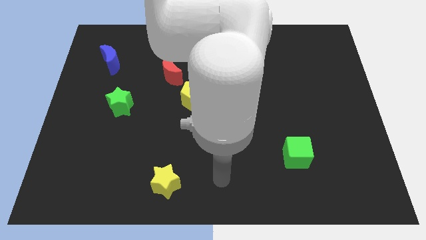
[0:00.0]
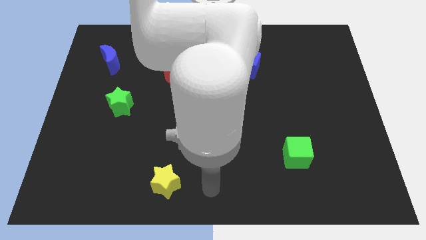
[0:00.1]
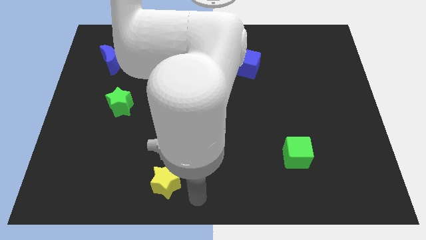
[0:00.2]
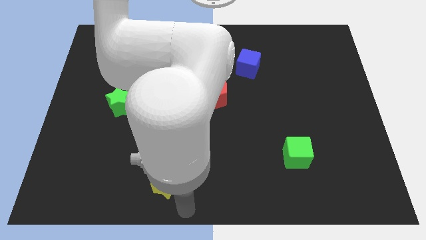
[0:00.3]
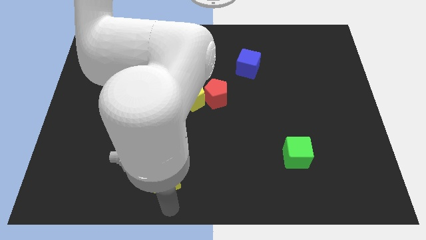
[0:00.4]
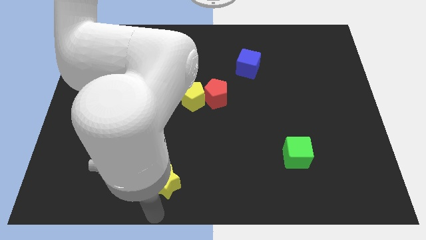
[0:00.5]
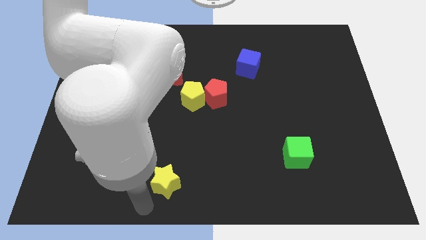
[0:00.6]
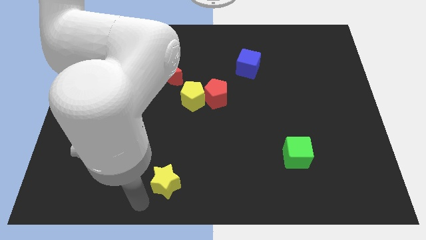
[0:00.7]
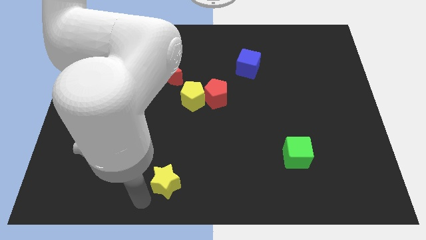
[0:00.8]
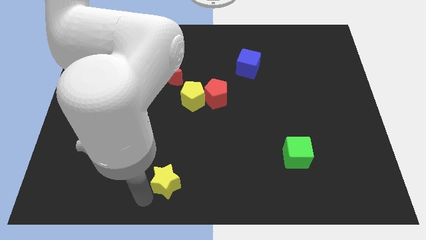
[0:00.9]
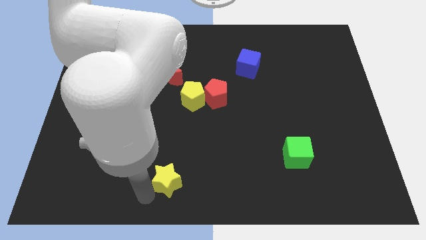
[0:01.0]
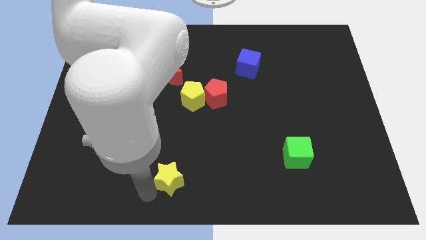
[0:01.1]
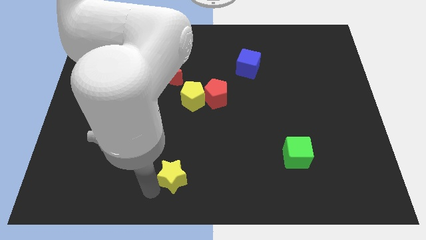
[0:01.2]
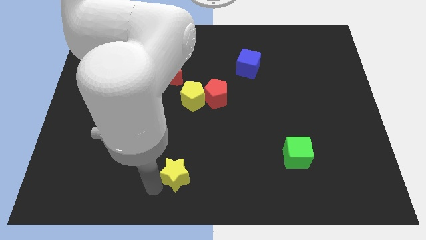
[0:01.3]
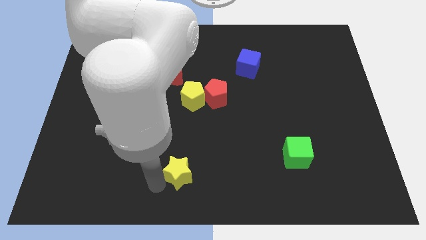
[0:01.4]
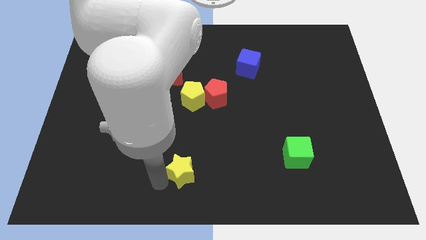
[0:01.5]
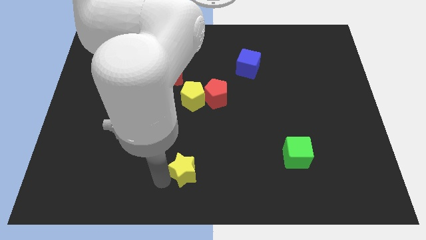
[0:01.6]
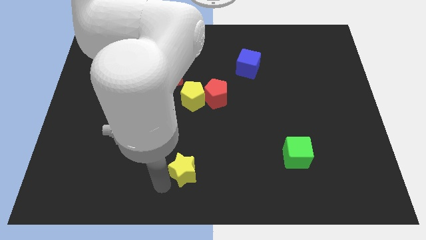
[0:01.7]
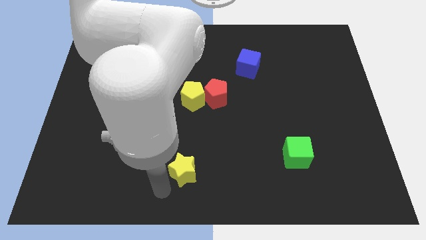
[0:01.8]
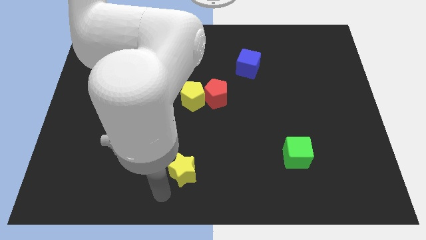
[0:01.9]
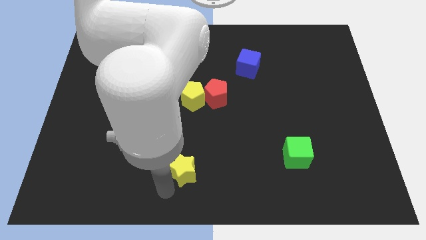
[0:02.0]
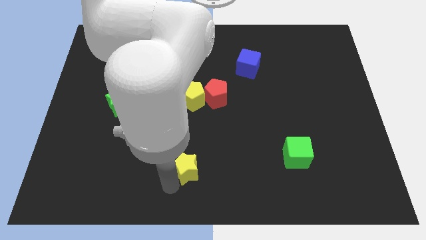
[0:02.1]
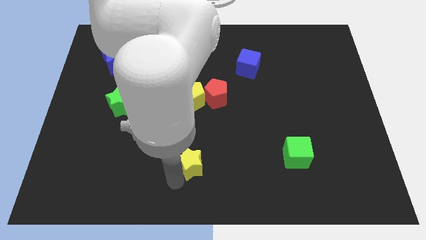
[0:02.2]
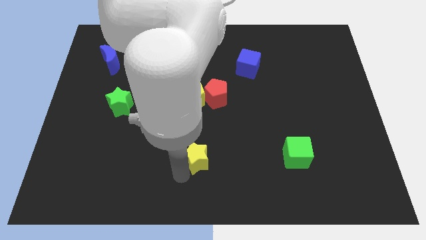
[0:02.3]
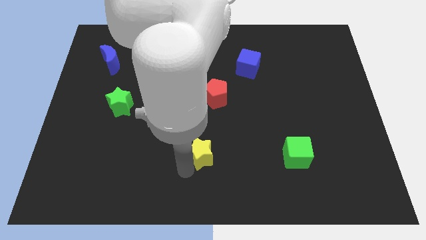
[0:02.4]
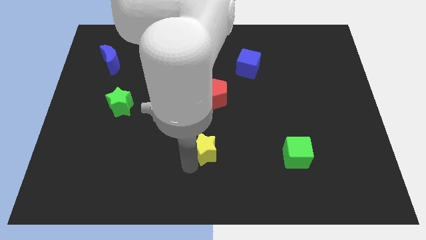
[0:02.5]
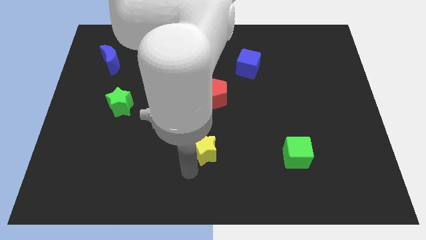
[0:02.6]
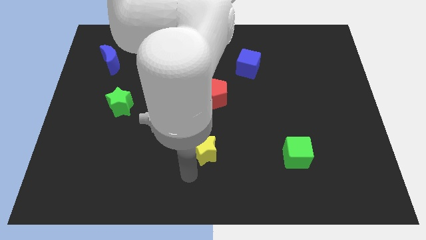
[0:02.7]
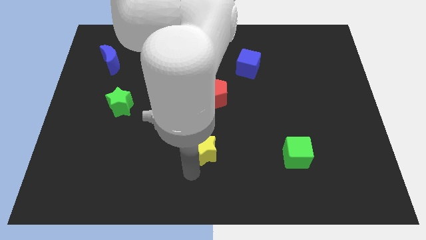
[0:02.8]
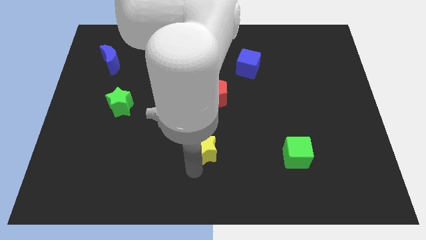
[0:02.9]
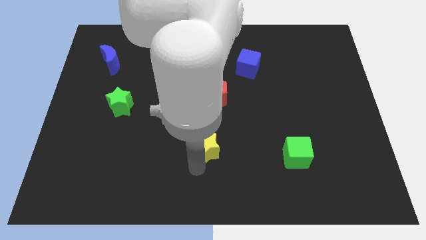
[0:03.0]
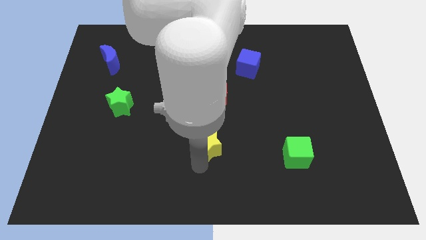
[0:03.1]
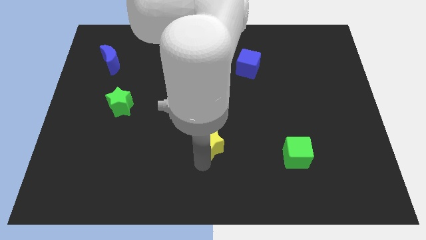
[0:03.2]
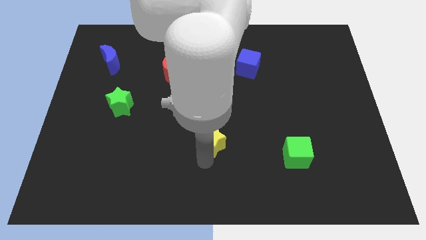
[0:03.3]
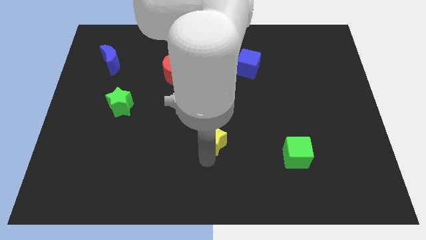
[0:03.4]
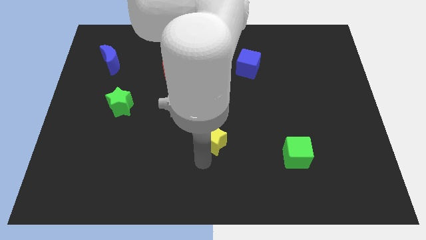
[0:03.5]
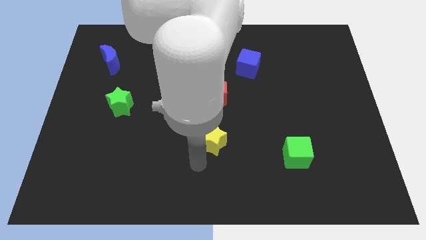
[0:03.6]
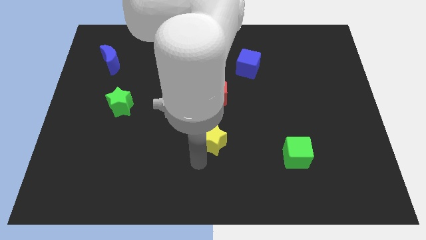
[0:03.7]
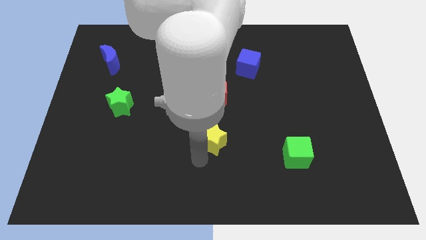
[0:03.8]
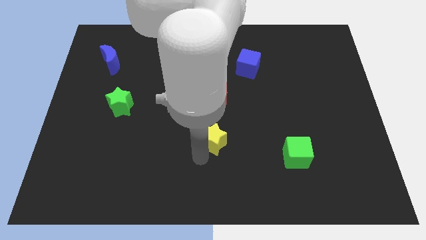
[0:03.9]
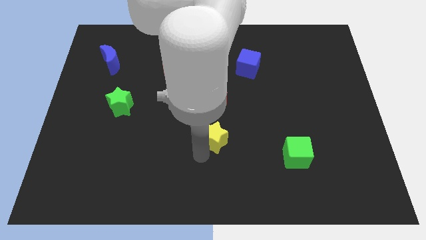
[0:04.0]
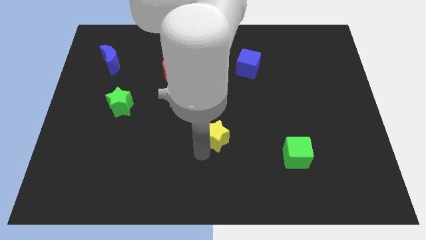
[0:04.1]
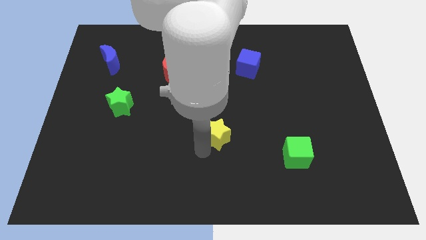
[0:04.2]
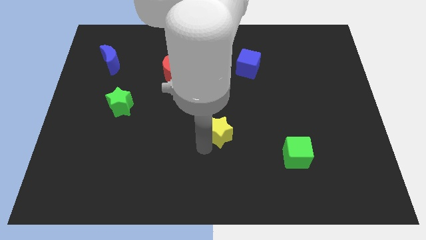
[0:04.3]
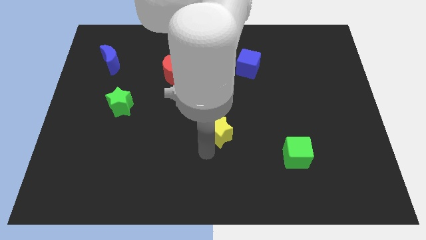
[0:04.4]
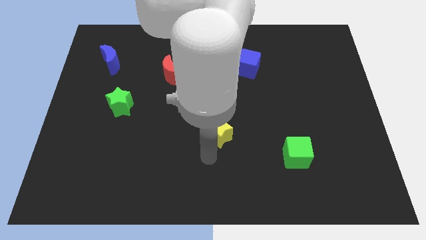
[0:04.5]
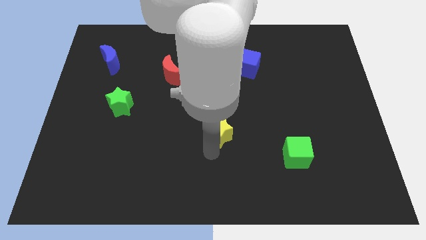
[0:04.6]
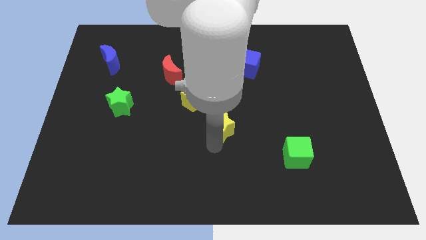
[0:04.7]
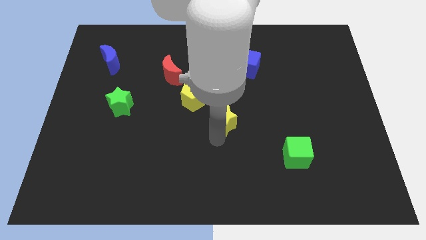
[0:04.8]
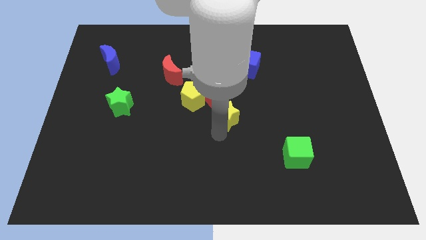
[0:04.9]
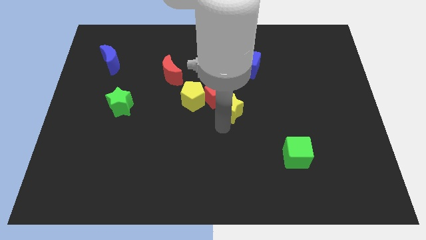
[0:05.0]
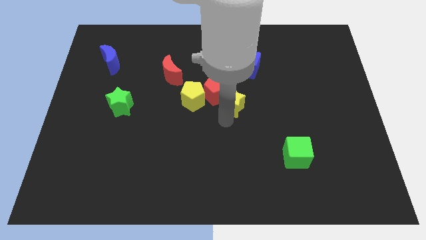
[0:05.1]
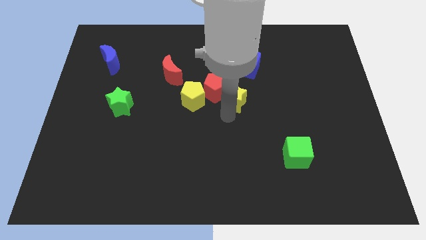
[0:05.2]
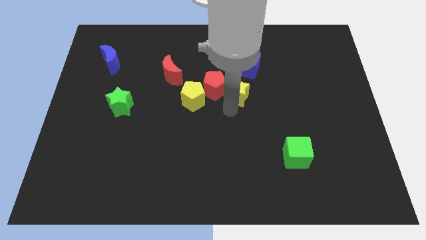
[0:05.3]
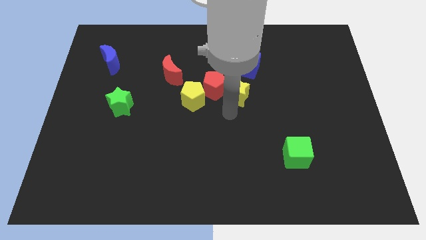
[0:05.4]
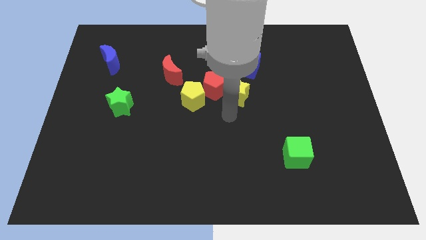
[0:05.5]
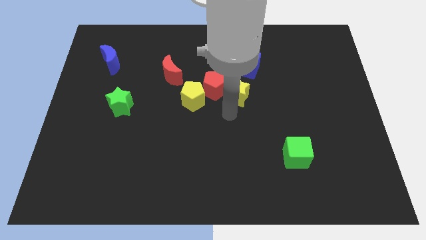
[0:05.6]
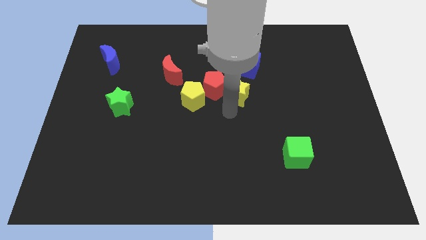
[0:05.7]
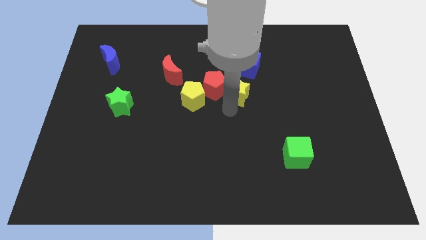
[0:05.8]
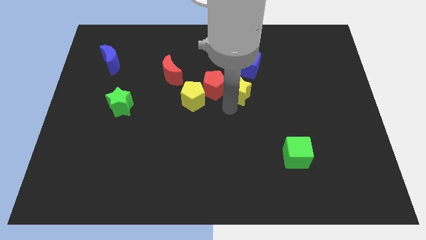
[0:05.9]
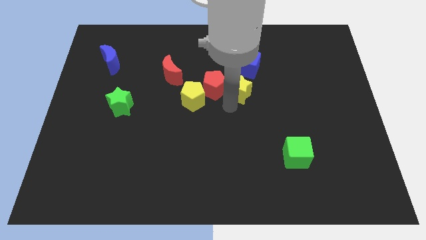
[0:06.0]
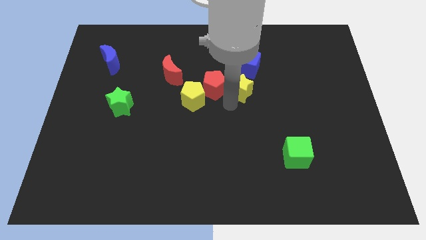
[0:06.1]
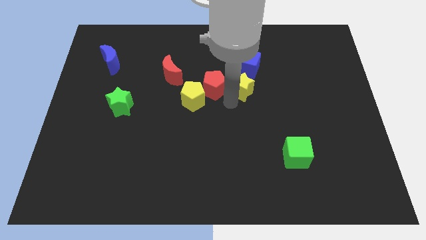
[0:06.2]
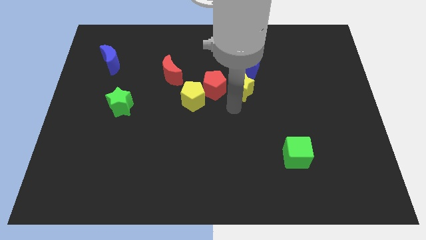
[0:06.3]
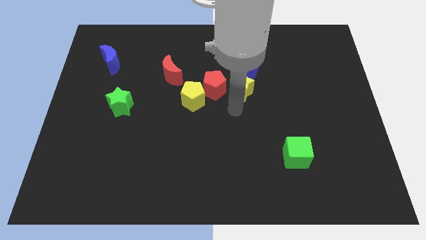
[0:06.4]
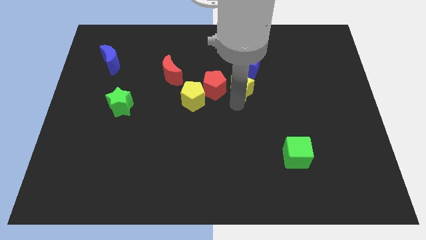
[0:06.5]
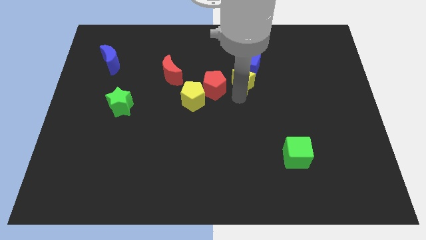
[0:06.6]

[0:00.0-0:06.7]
slide the yellow star to the blue cube

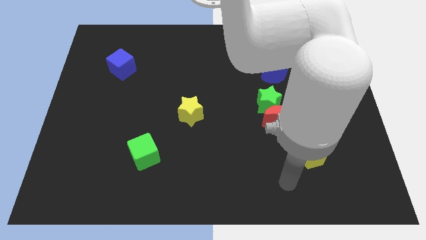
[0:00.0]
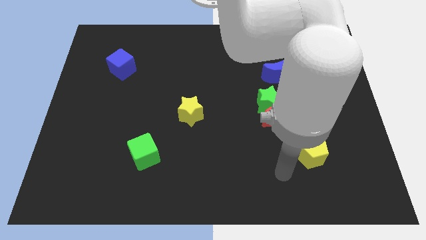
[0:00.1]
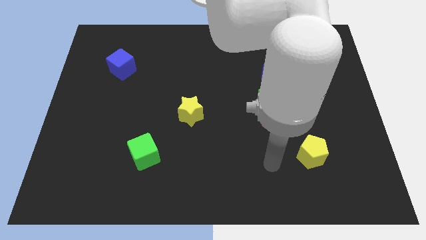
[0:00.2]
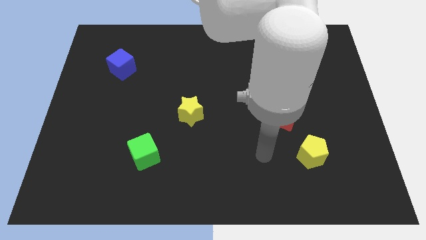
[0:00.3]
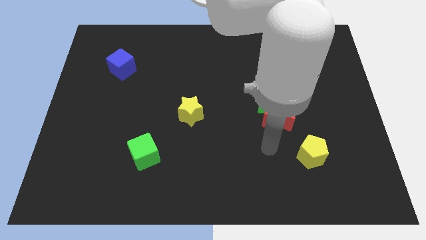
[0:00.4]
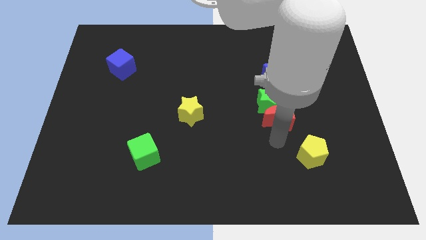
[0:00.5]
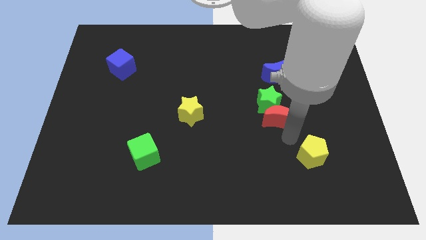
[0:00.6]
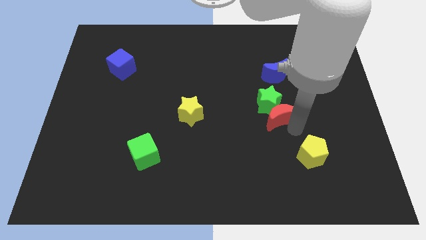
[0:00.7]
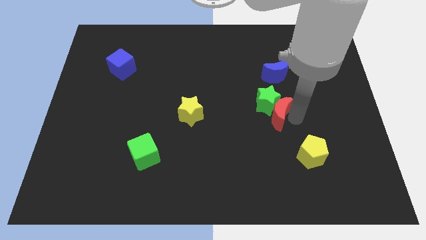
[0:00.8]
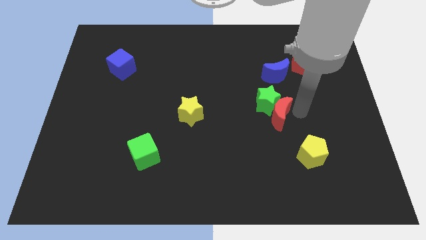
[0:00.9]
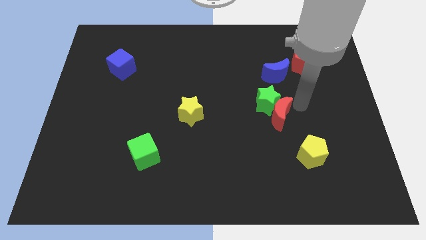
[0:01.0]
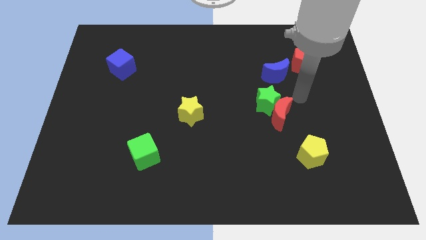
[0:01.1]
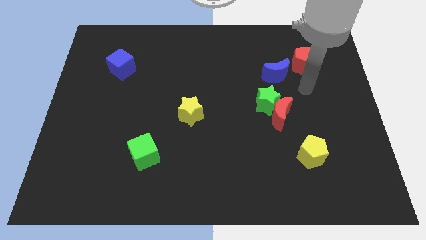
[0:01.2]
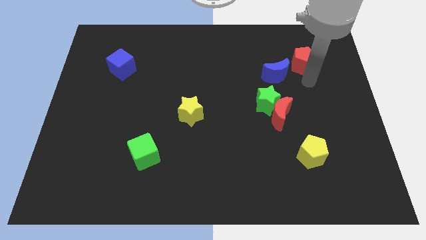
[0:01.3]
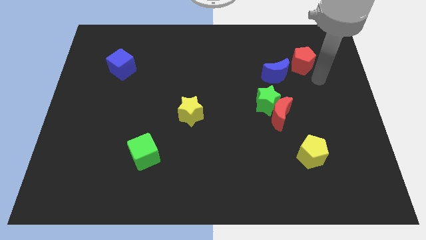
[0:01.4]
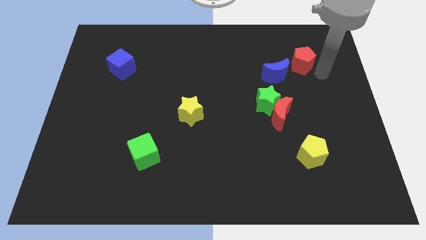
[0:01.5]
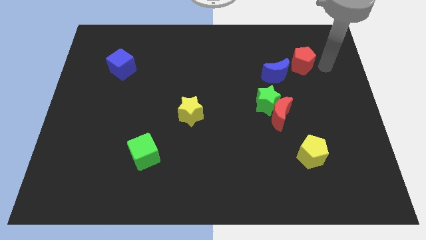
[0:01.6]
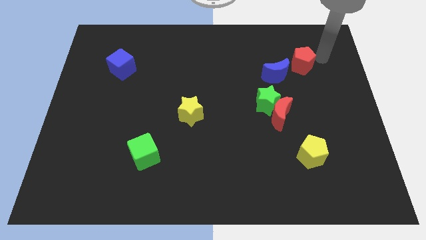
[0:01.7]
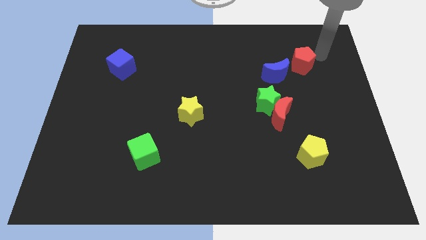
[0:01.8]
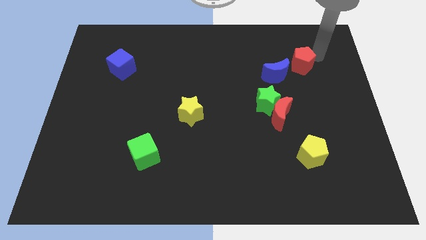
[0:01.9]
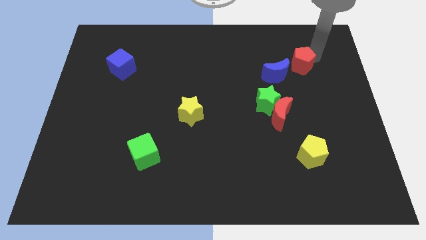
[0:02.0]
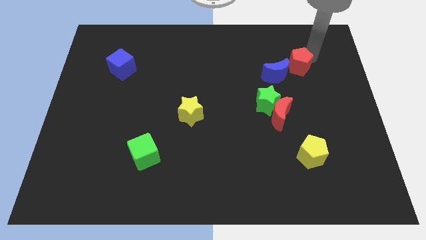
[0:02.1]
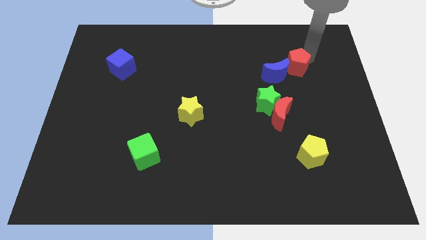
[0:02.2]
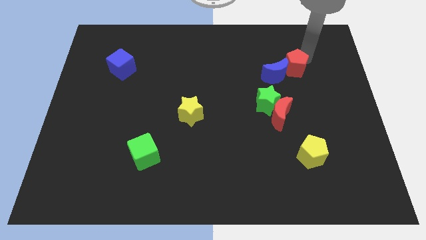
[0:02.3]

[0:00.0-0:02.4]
push the red pentagon towards the blue moon
